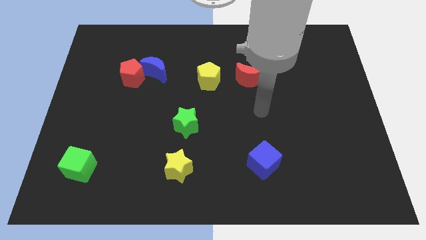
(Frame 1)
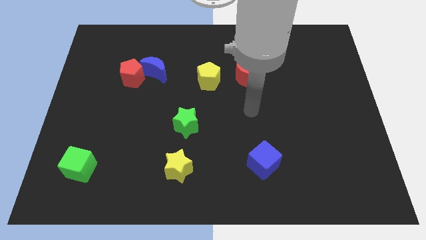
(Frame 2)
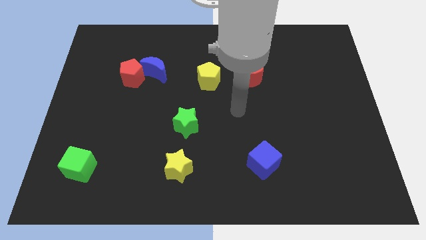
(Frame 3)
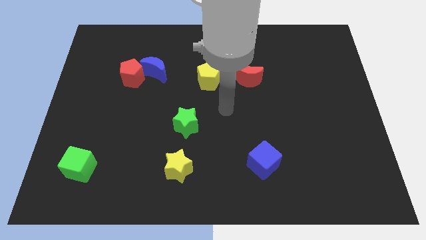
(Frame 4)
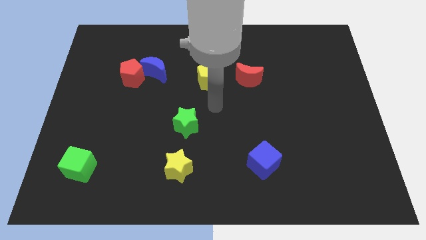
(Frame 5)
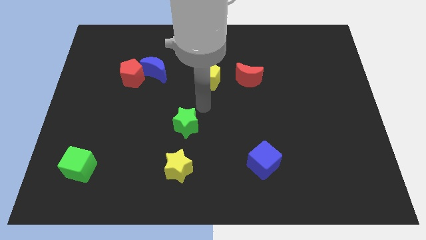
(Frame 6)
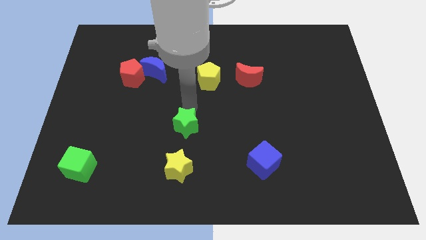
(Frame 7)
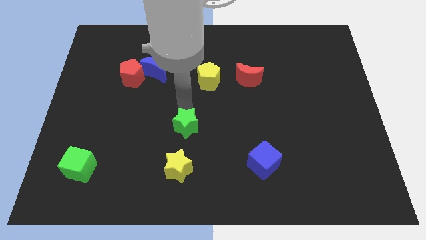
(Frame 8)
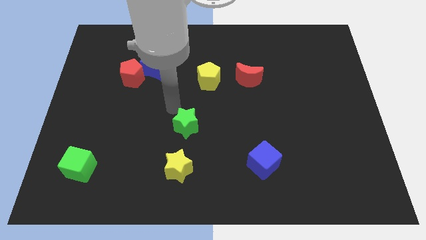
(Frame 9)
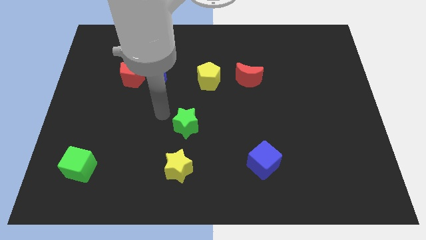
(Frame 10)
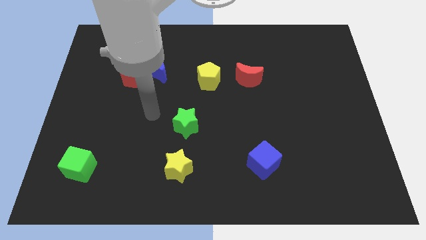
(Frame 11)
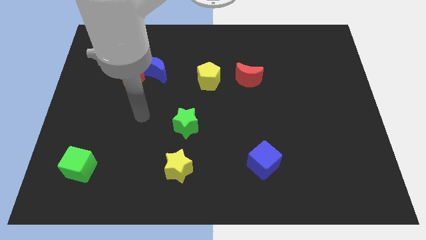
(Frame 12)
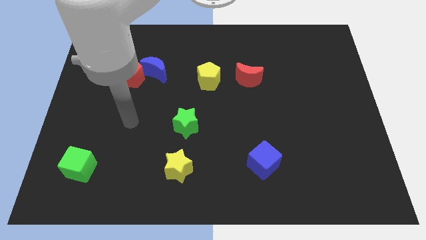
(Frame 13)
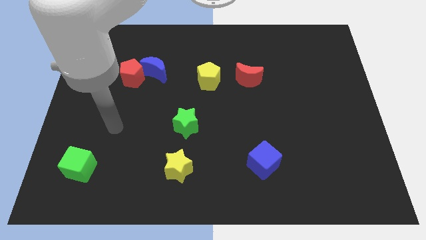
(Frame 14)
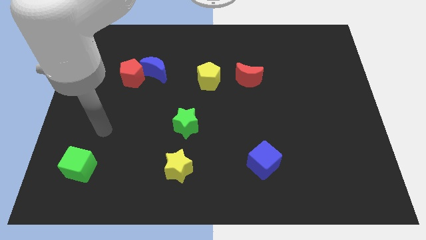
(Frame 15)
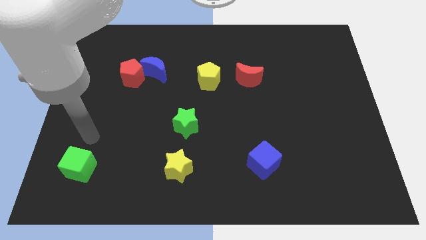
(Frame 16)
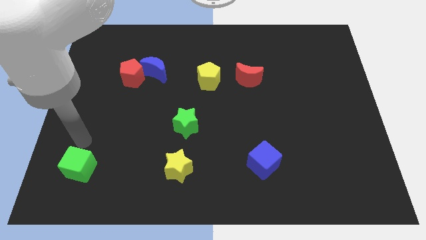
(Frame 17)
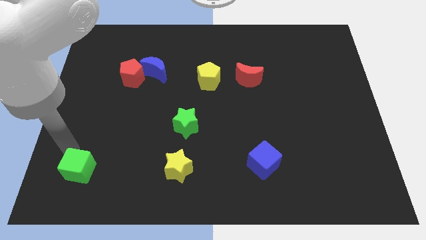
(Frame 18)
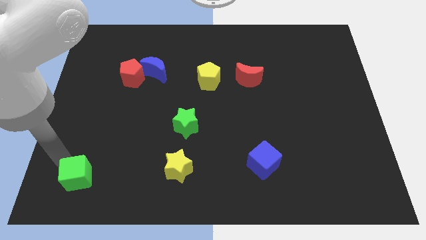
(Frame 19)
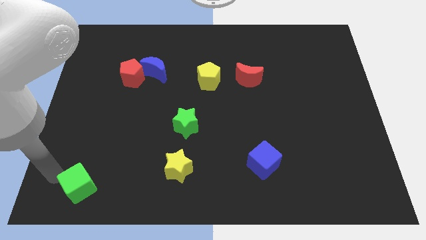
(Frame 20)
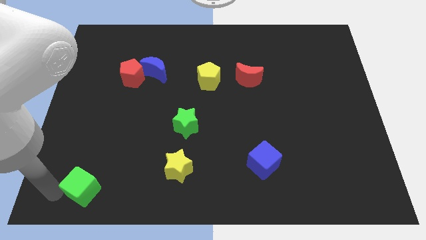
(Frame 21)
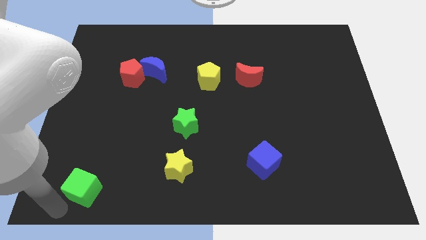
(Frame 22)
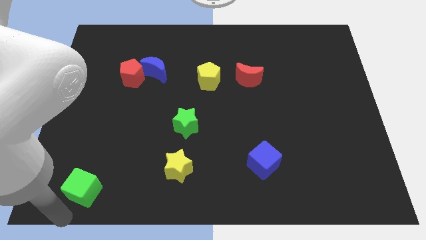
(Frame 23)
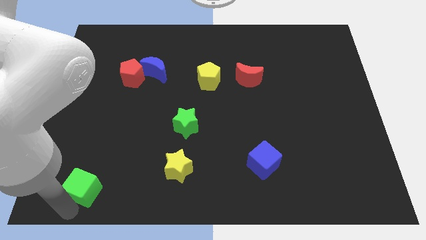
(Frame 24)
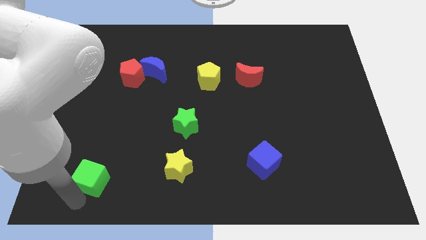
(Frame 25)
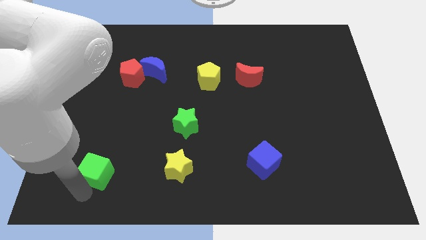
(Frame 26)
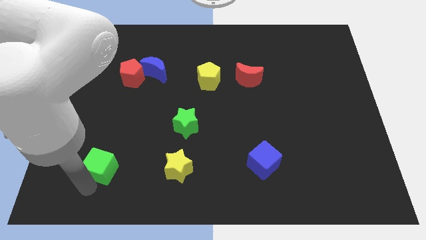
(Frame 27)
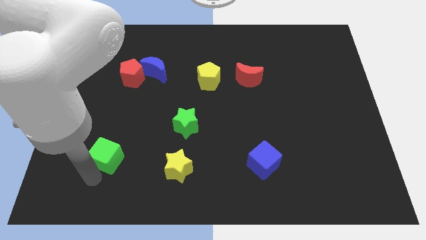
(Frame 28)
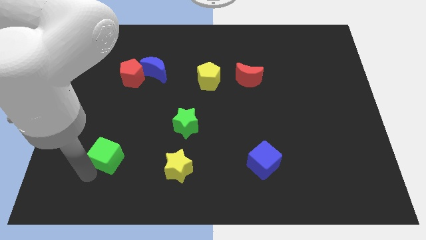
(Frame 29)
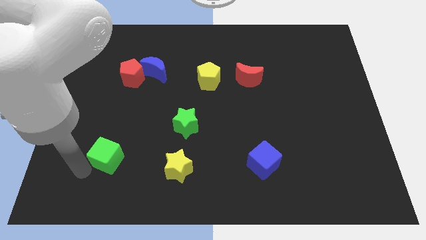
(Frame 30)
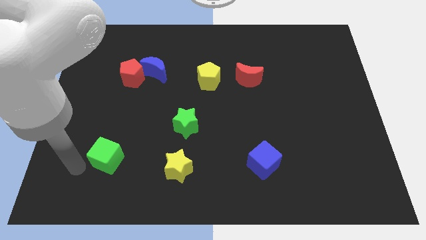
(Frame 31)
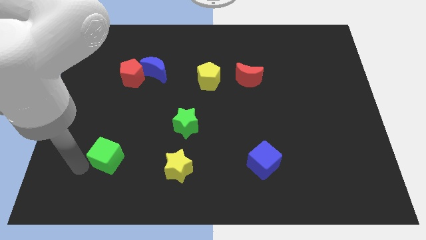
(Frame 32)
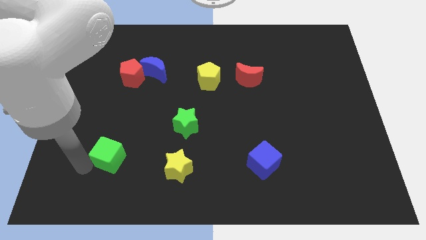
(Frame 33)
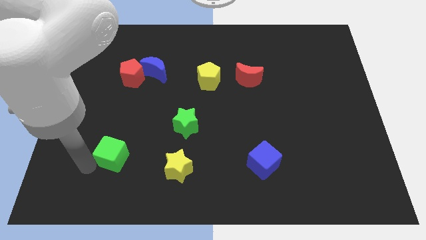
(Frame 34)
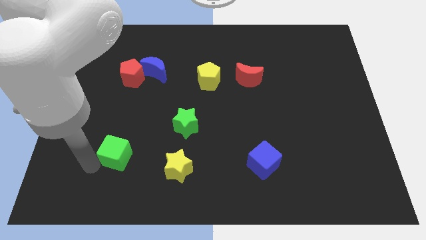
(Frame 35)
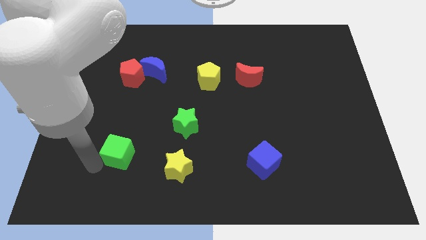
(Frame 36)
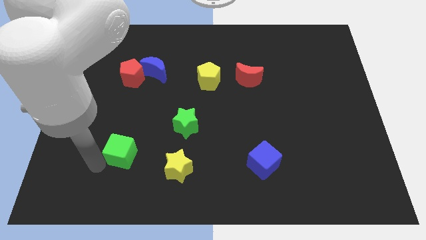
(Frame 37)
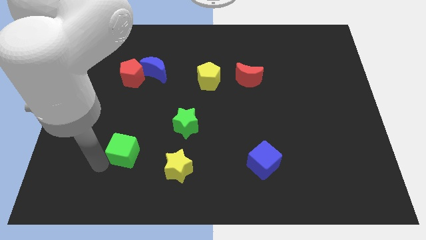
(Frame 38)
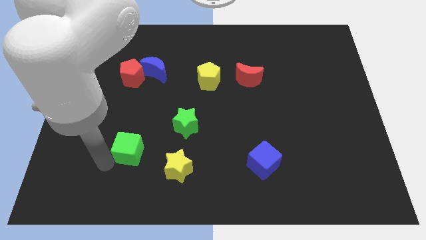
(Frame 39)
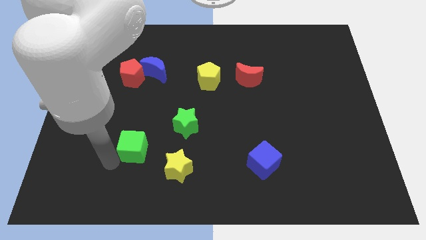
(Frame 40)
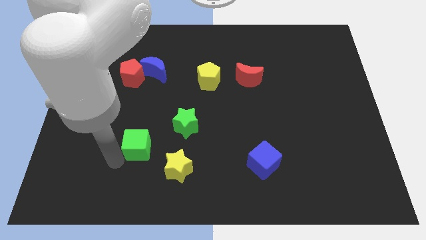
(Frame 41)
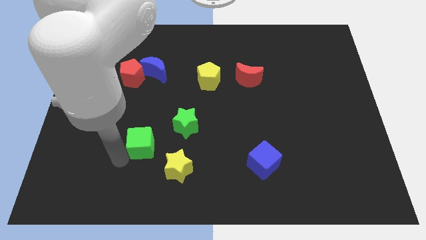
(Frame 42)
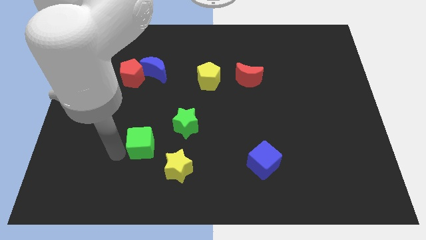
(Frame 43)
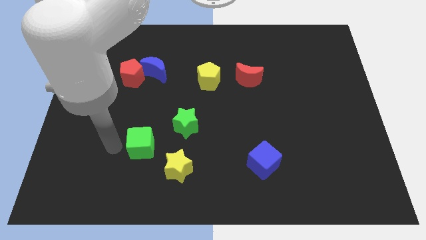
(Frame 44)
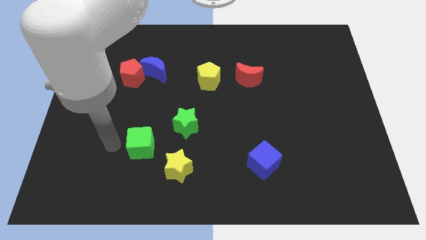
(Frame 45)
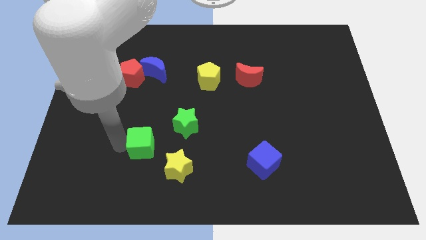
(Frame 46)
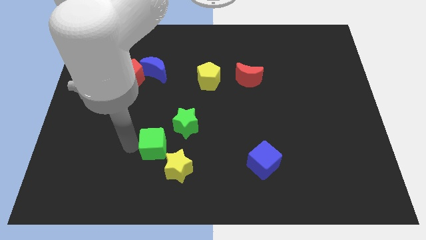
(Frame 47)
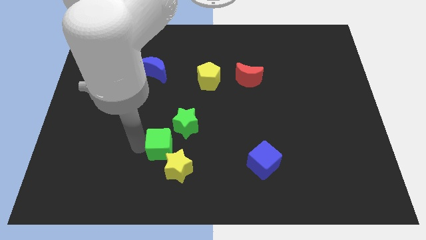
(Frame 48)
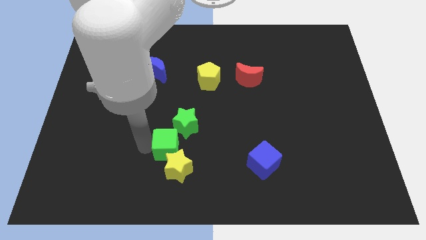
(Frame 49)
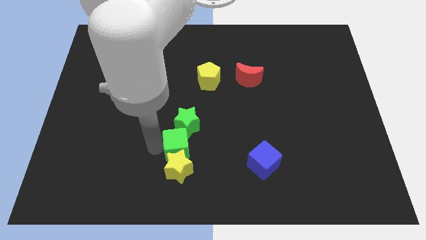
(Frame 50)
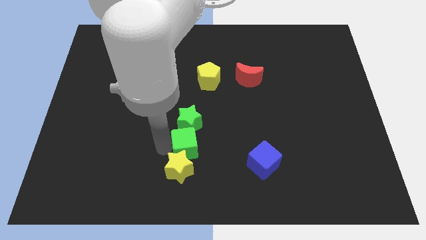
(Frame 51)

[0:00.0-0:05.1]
move the green cube to the bottom right of the green star

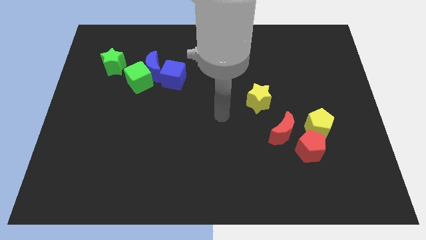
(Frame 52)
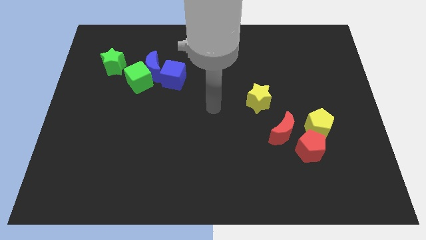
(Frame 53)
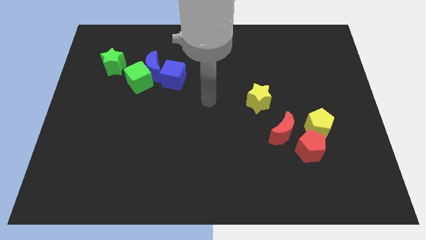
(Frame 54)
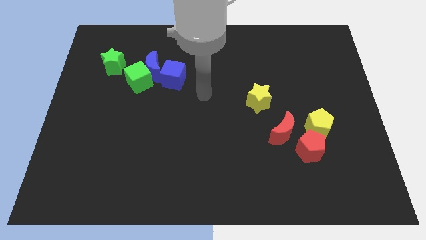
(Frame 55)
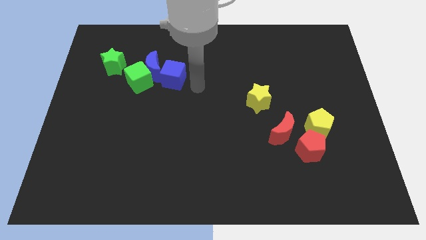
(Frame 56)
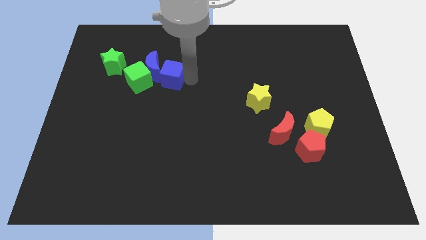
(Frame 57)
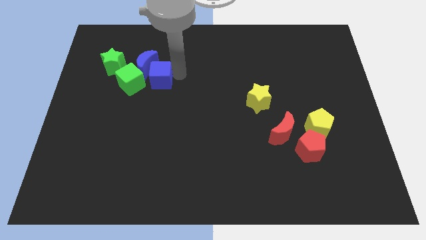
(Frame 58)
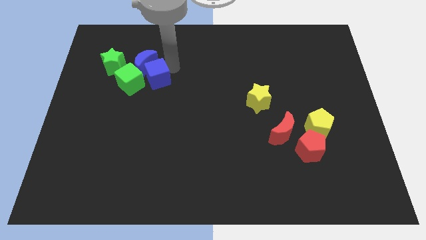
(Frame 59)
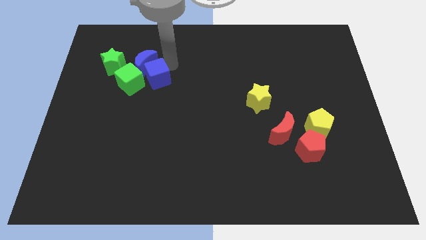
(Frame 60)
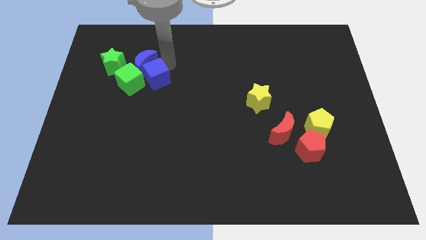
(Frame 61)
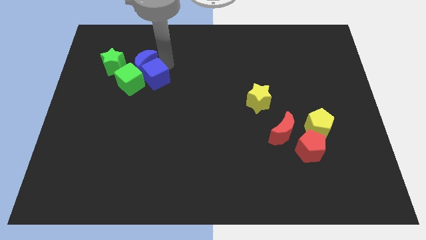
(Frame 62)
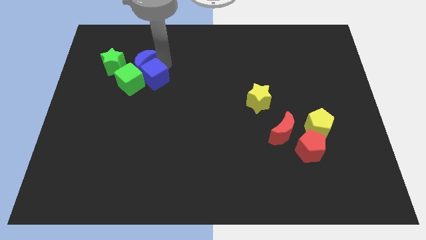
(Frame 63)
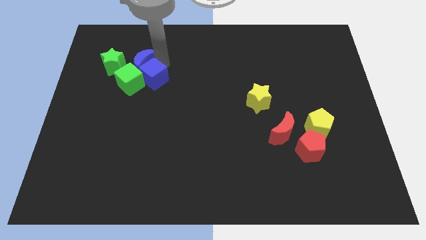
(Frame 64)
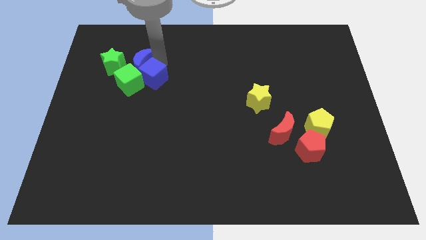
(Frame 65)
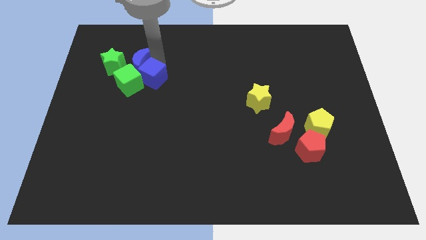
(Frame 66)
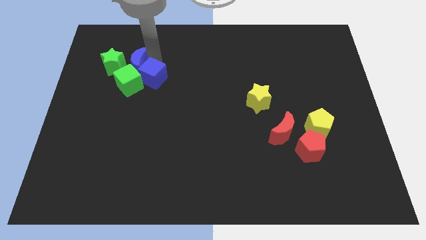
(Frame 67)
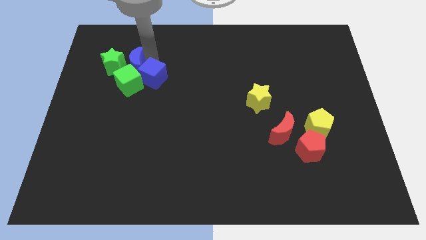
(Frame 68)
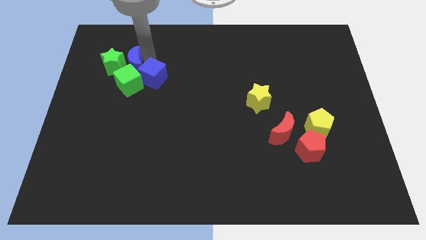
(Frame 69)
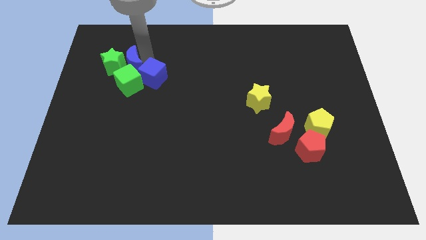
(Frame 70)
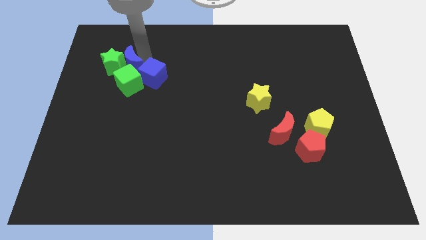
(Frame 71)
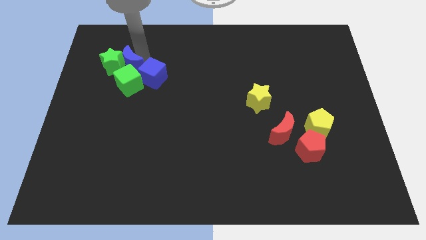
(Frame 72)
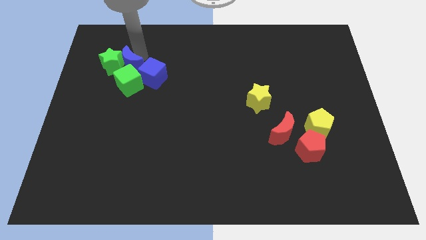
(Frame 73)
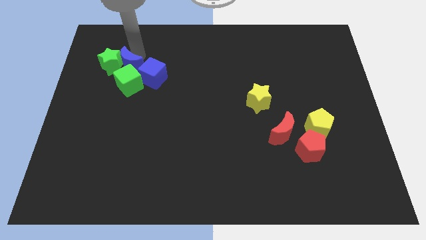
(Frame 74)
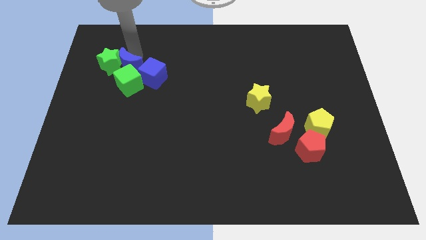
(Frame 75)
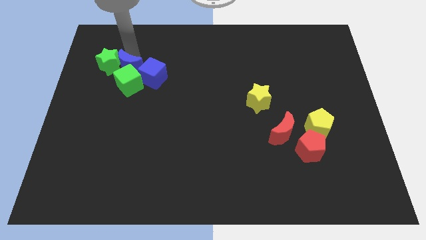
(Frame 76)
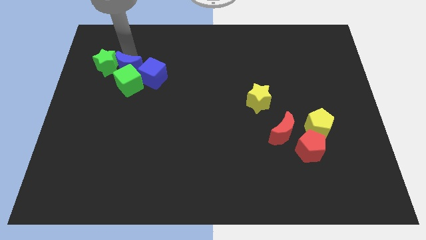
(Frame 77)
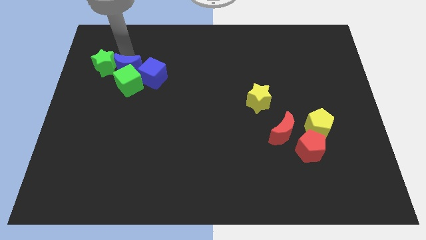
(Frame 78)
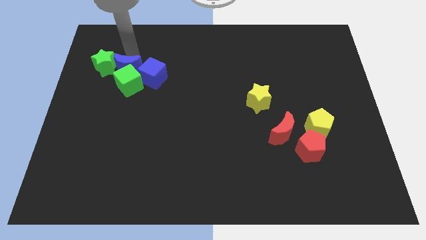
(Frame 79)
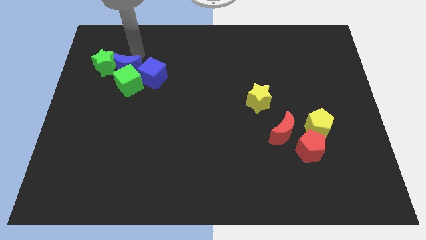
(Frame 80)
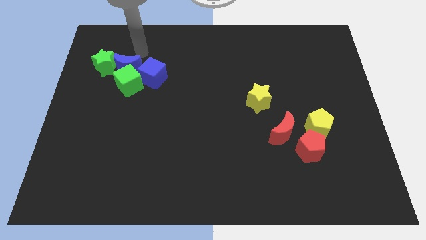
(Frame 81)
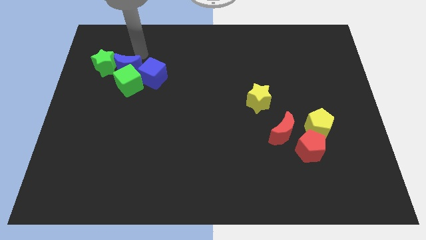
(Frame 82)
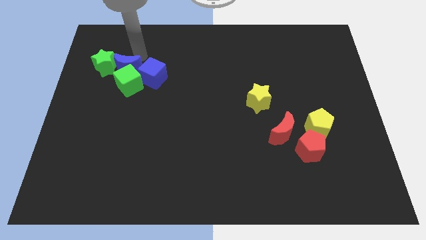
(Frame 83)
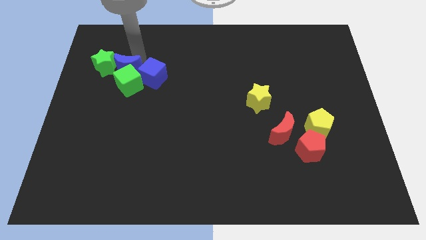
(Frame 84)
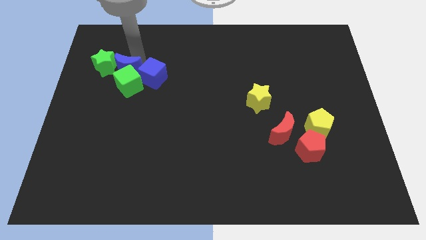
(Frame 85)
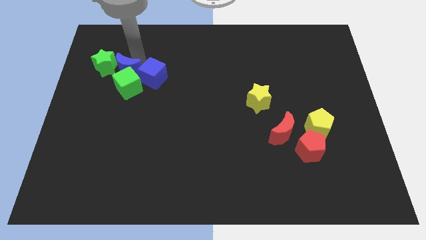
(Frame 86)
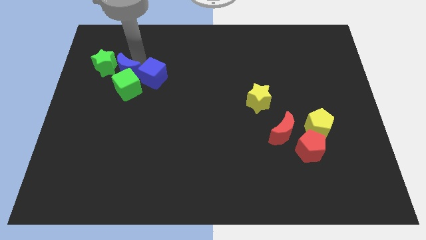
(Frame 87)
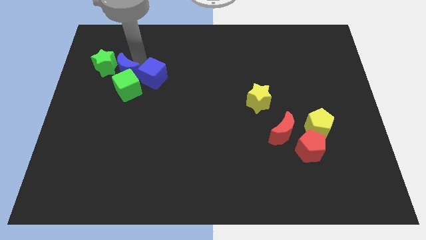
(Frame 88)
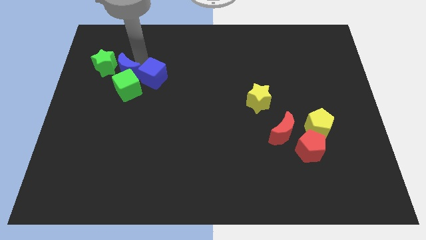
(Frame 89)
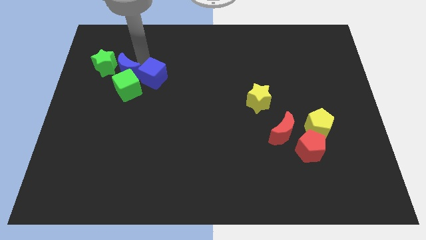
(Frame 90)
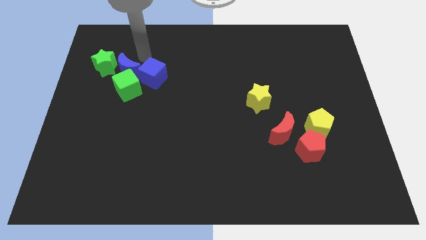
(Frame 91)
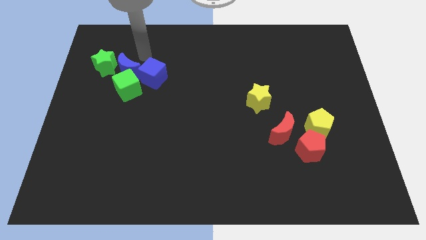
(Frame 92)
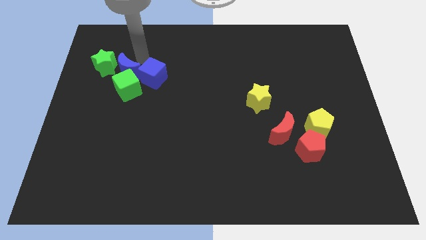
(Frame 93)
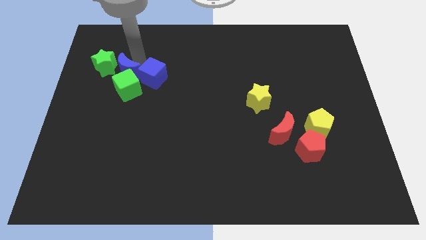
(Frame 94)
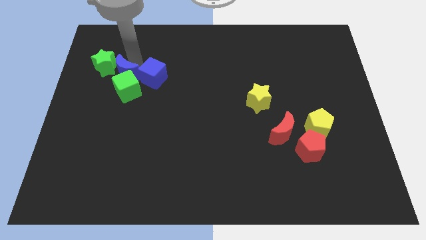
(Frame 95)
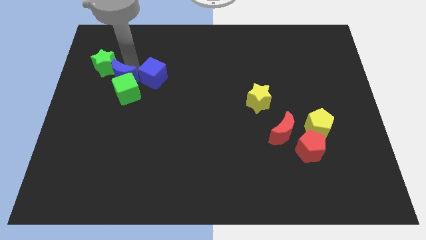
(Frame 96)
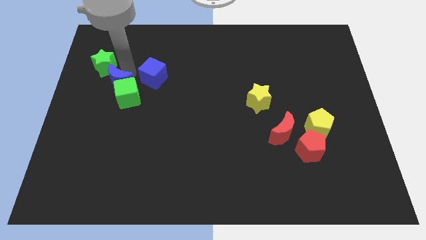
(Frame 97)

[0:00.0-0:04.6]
slide the blue moon below the green star
